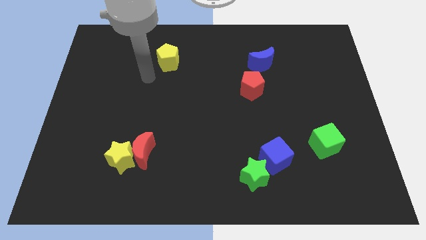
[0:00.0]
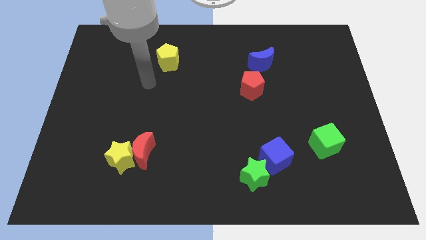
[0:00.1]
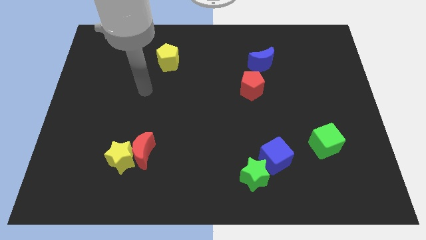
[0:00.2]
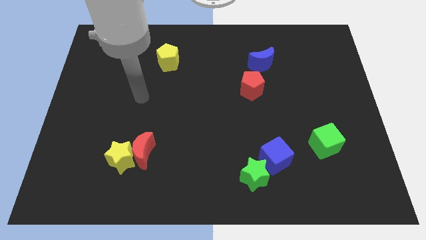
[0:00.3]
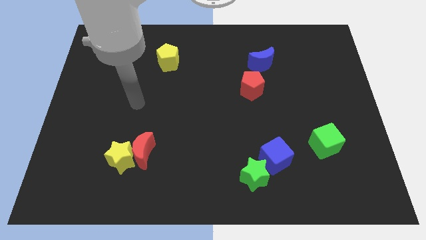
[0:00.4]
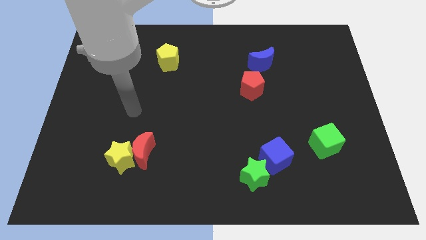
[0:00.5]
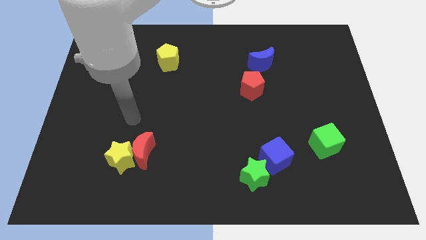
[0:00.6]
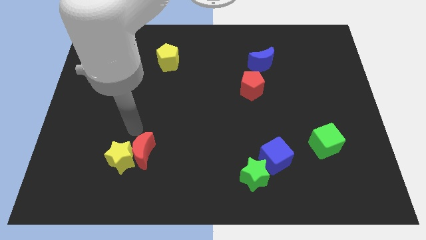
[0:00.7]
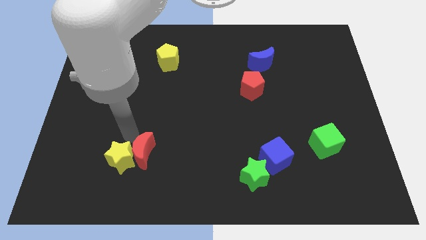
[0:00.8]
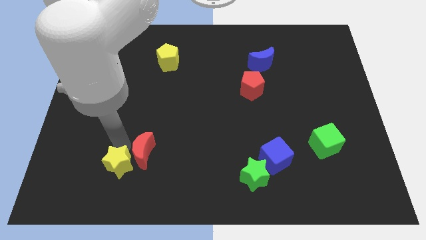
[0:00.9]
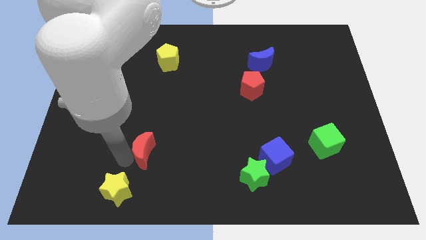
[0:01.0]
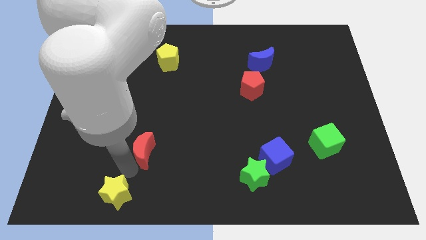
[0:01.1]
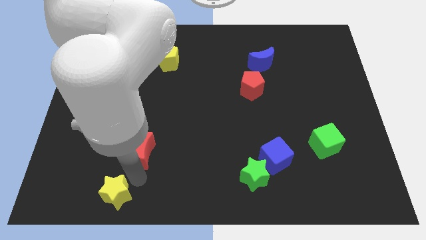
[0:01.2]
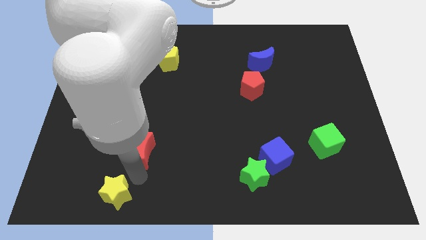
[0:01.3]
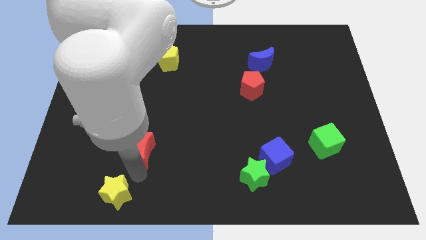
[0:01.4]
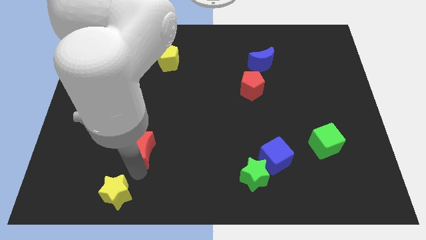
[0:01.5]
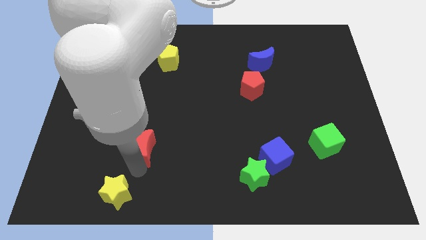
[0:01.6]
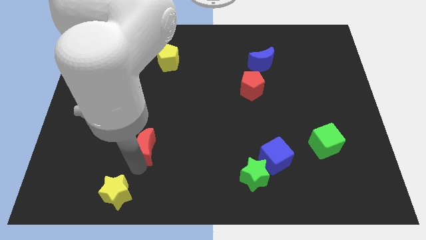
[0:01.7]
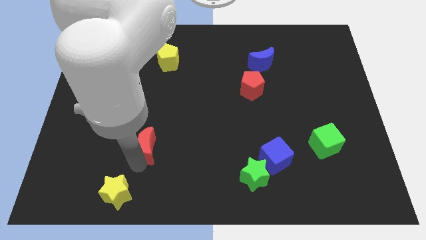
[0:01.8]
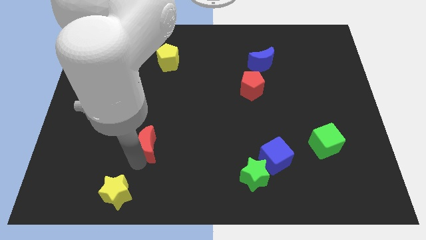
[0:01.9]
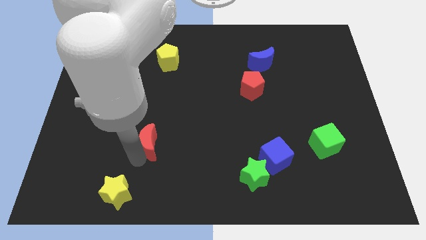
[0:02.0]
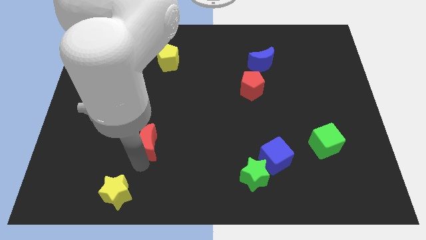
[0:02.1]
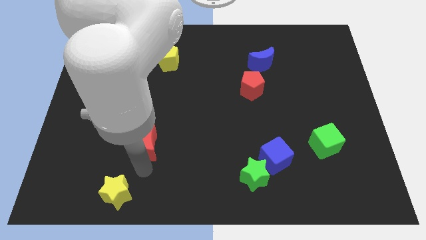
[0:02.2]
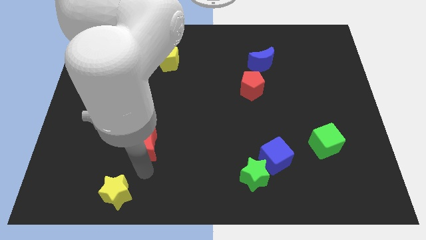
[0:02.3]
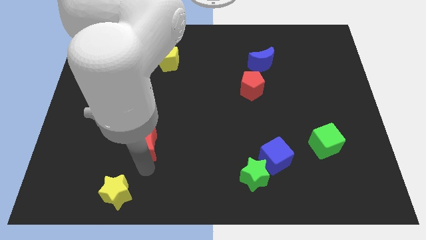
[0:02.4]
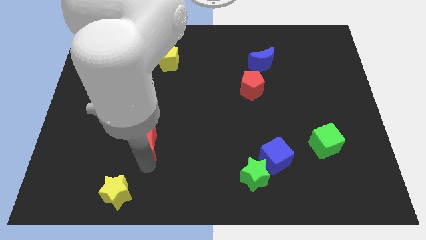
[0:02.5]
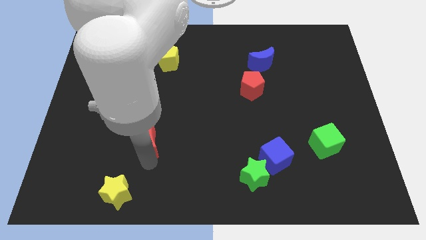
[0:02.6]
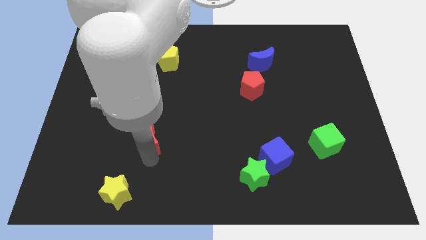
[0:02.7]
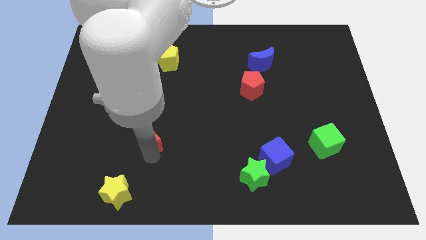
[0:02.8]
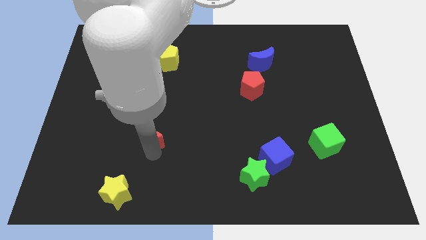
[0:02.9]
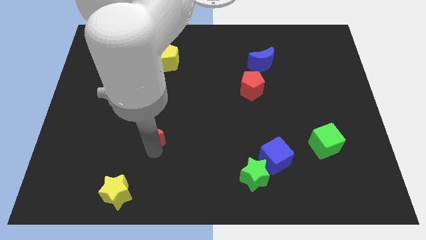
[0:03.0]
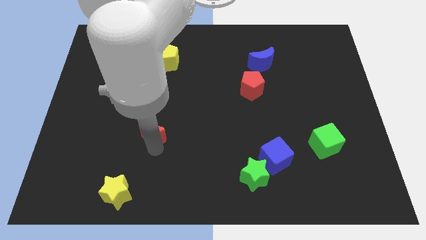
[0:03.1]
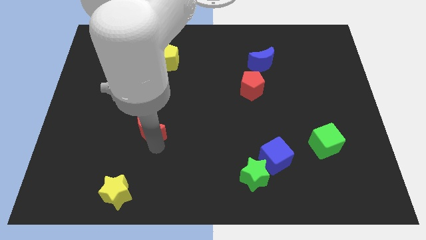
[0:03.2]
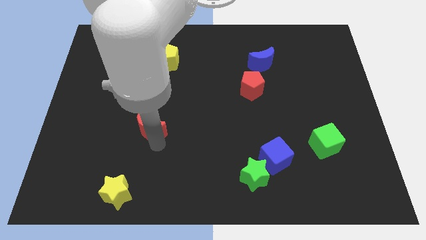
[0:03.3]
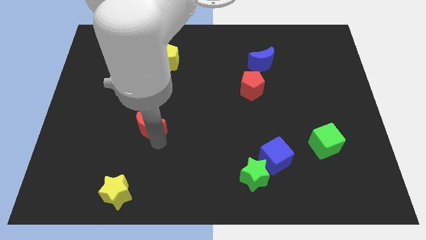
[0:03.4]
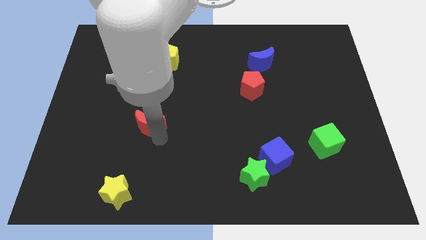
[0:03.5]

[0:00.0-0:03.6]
move the red moon up a bit

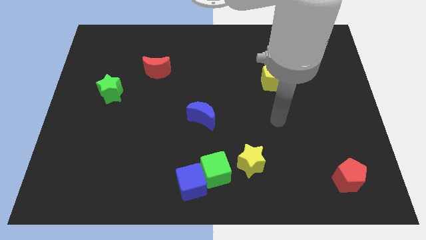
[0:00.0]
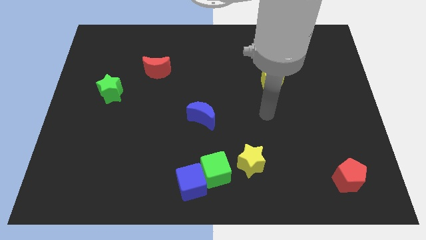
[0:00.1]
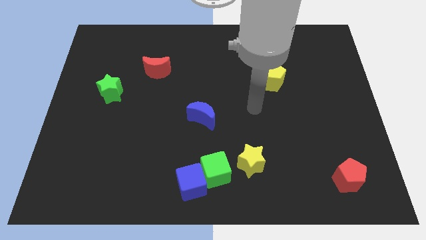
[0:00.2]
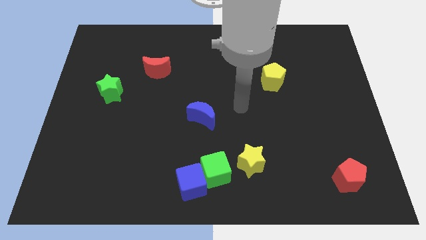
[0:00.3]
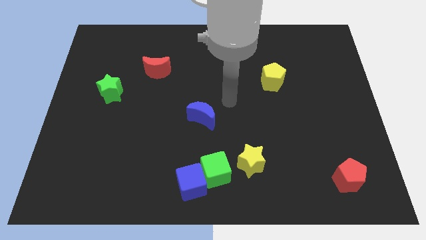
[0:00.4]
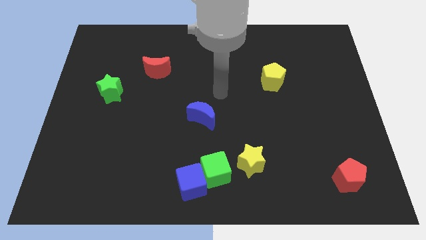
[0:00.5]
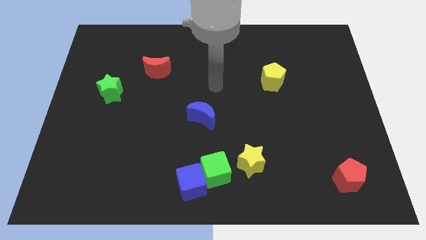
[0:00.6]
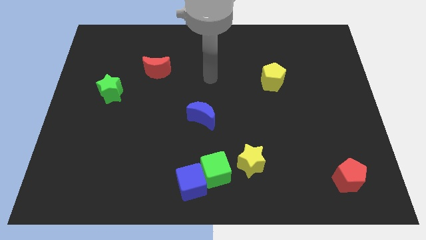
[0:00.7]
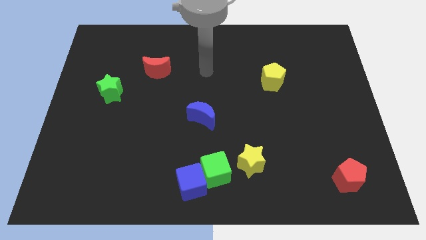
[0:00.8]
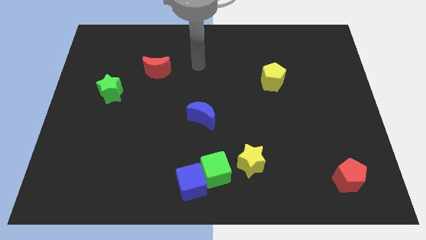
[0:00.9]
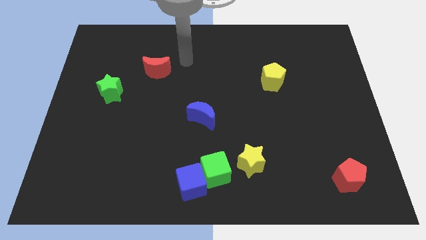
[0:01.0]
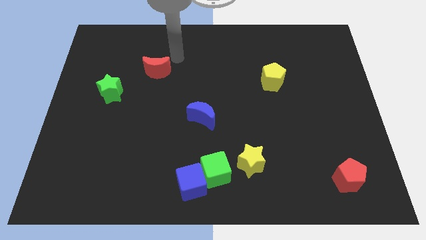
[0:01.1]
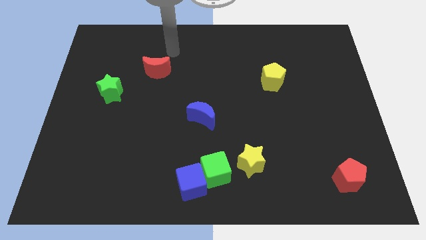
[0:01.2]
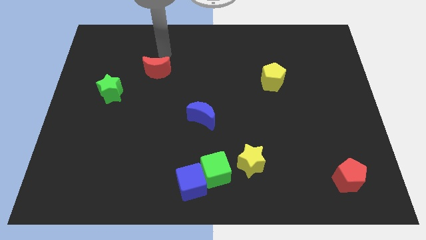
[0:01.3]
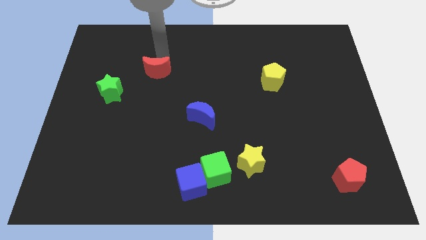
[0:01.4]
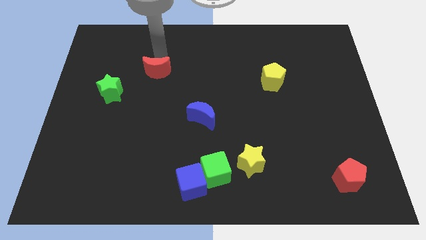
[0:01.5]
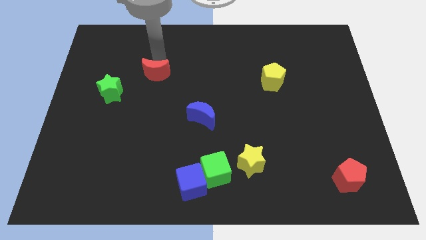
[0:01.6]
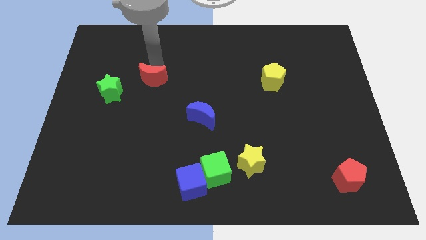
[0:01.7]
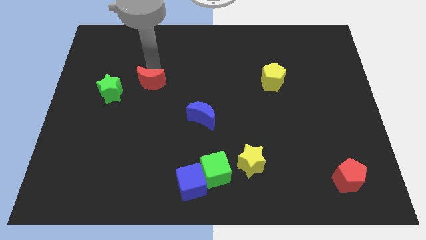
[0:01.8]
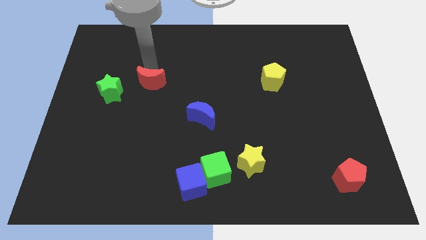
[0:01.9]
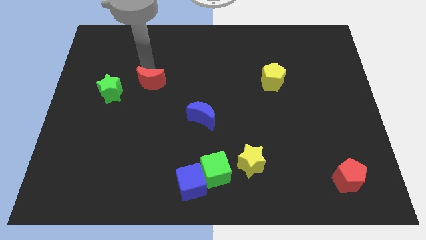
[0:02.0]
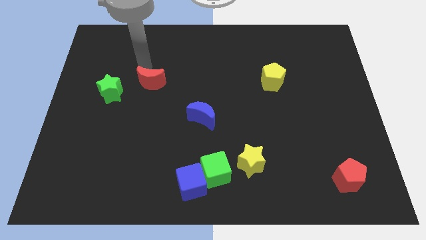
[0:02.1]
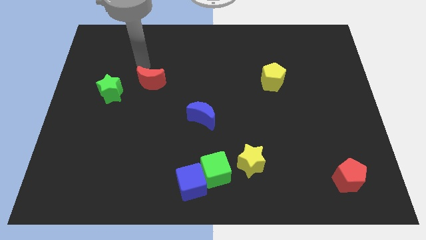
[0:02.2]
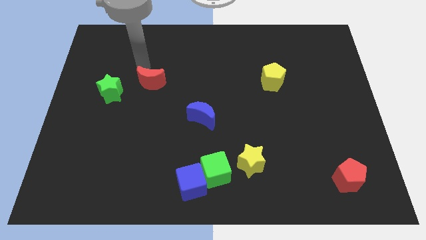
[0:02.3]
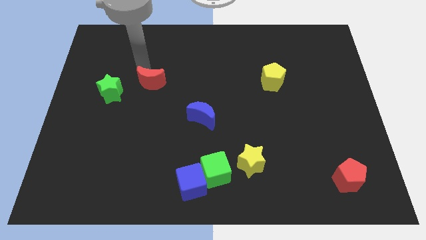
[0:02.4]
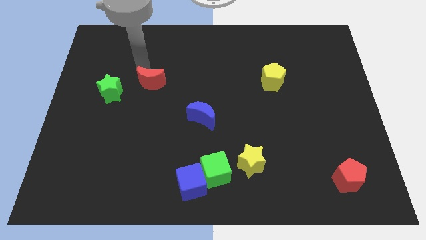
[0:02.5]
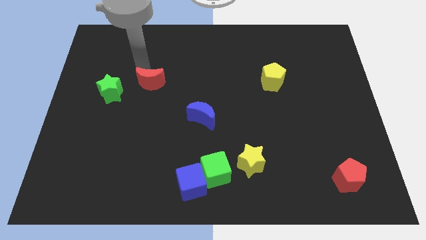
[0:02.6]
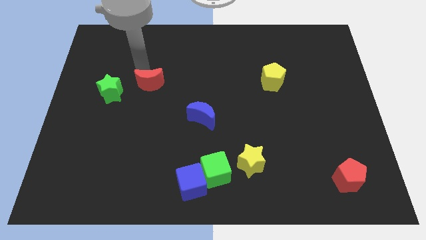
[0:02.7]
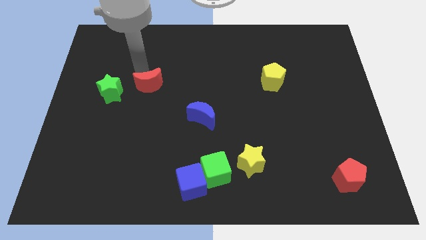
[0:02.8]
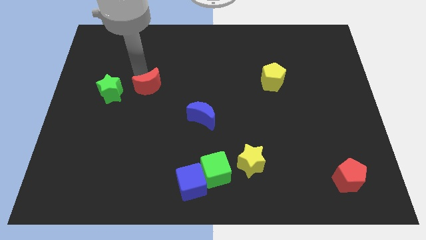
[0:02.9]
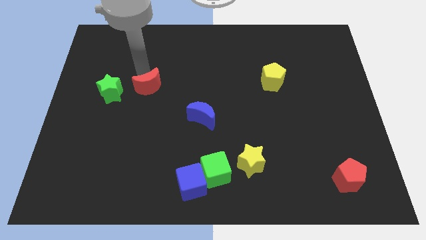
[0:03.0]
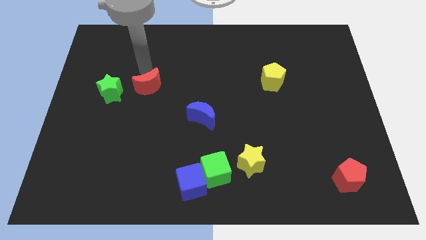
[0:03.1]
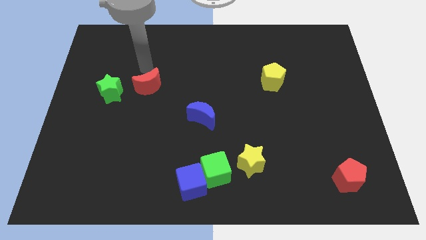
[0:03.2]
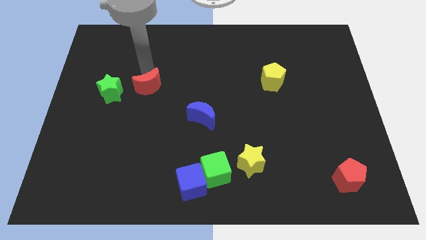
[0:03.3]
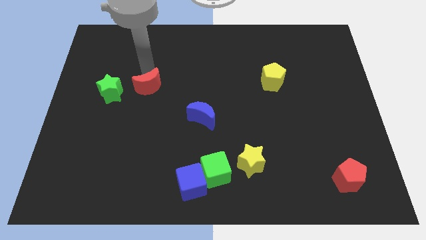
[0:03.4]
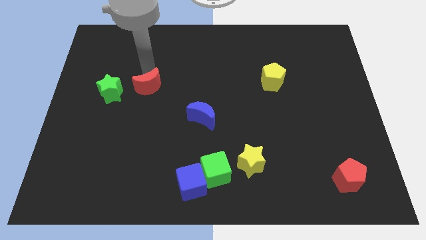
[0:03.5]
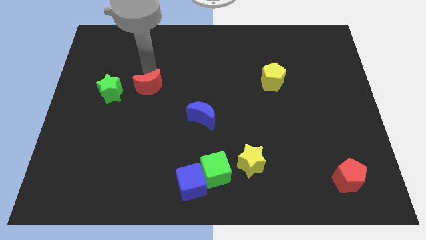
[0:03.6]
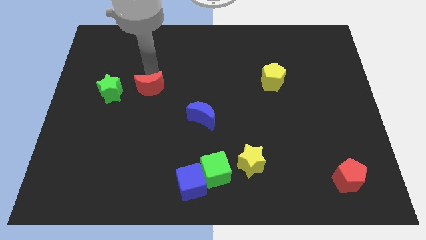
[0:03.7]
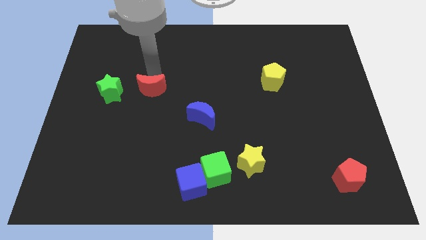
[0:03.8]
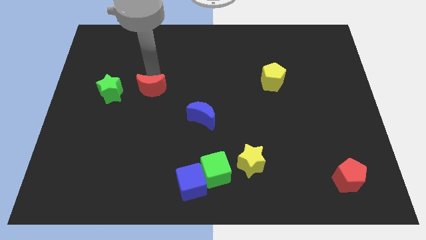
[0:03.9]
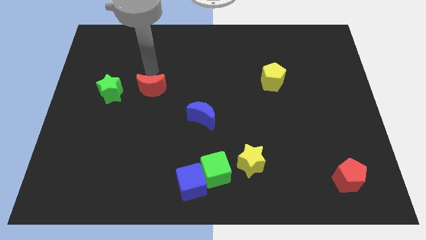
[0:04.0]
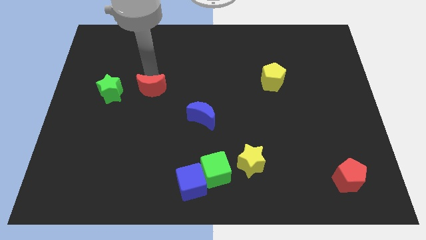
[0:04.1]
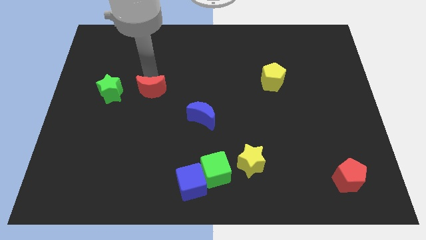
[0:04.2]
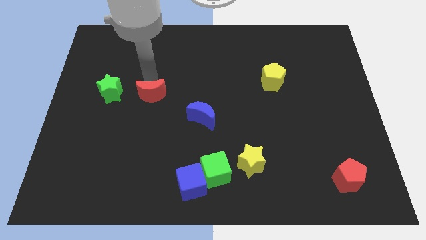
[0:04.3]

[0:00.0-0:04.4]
slide the red moon somewhat down

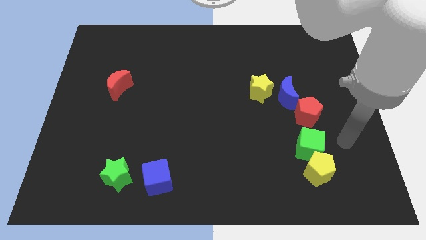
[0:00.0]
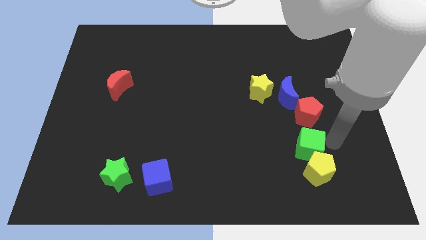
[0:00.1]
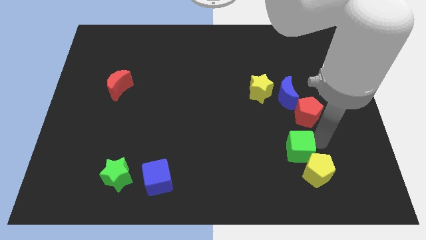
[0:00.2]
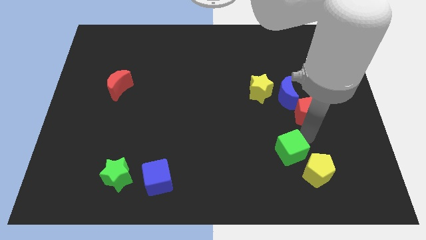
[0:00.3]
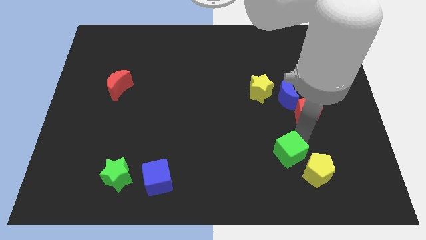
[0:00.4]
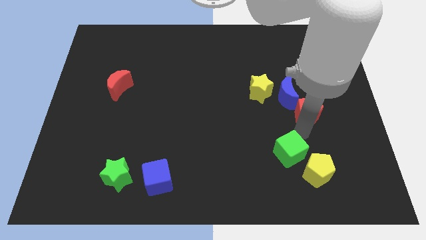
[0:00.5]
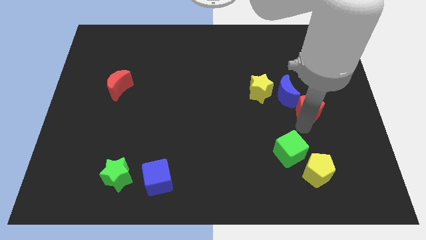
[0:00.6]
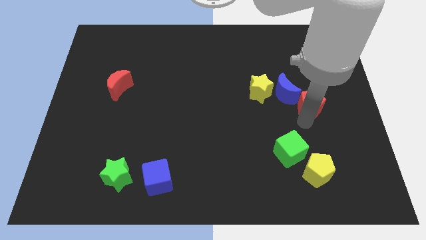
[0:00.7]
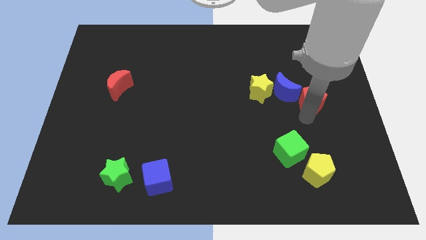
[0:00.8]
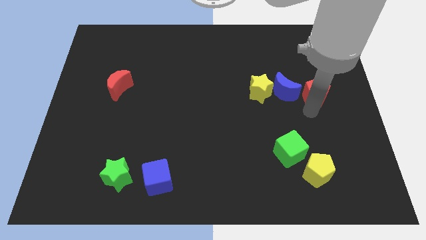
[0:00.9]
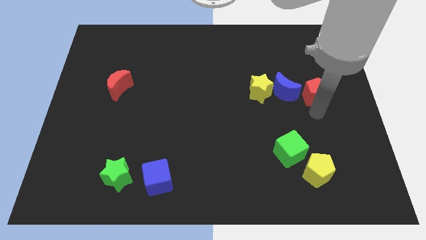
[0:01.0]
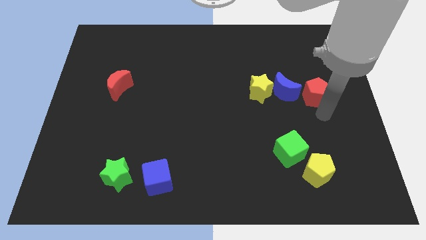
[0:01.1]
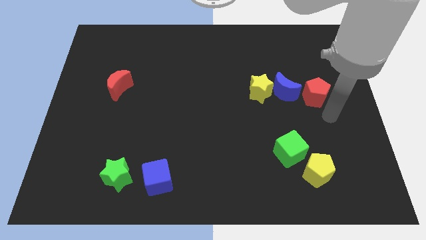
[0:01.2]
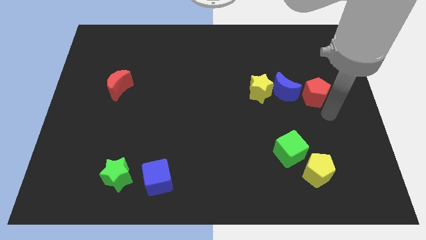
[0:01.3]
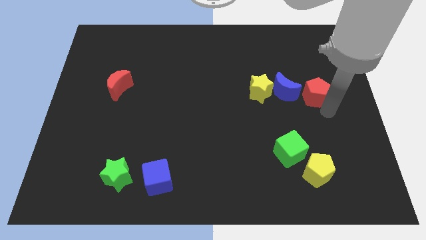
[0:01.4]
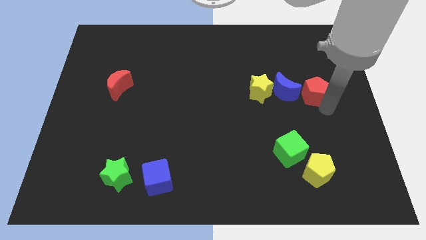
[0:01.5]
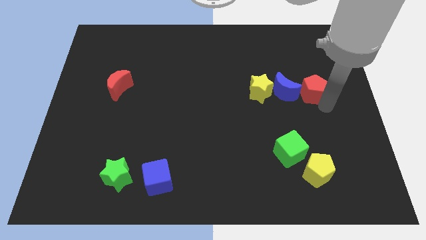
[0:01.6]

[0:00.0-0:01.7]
push the red pentagon up somewhat
